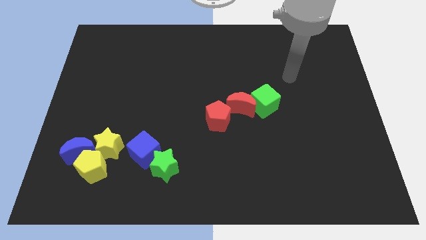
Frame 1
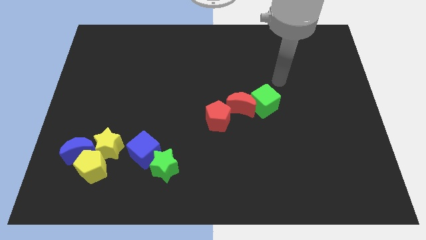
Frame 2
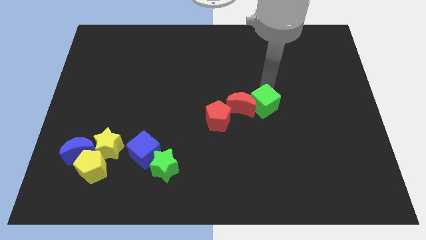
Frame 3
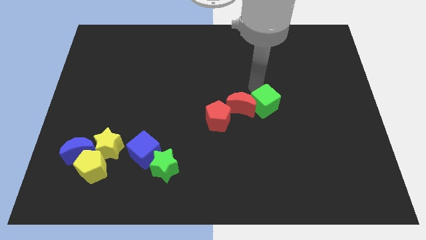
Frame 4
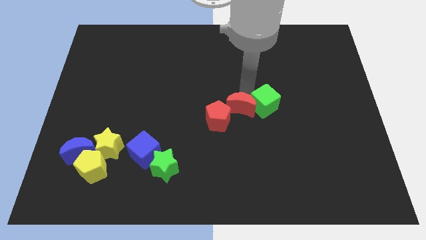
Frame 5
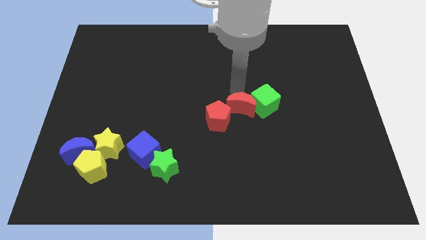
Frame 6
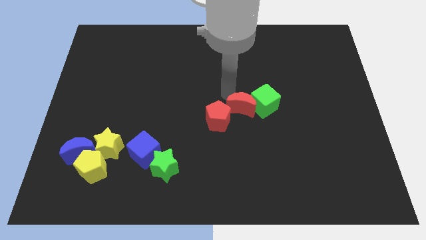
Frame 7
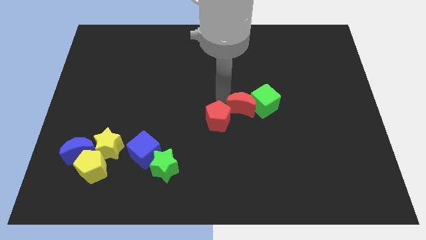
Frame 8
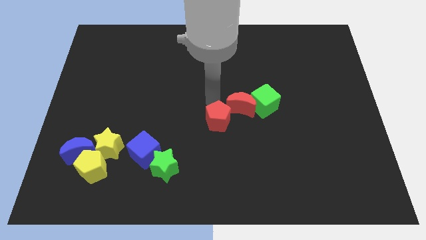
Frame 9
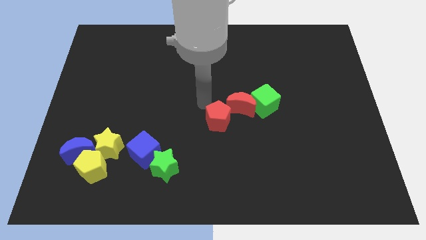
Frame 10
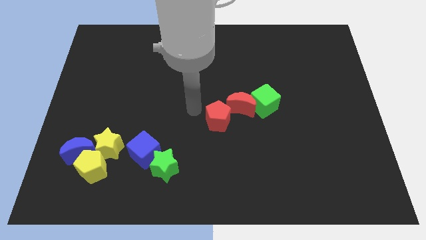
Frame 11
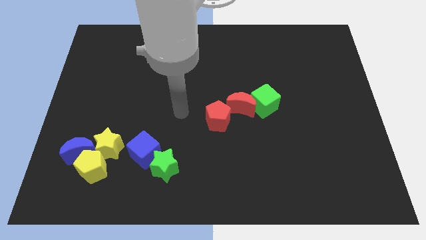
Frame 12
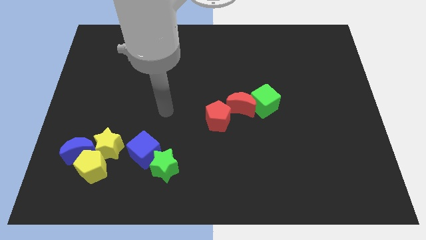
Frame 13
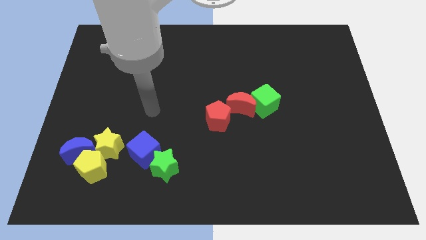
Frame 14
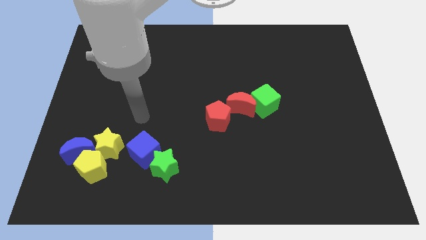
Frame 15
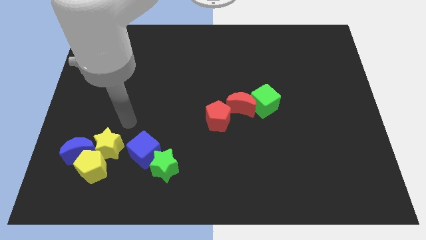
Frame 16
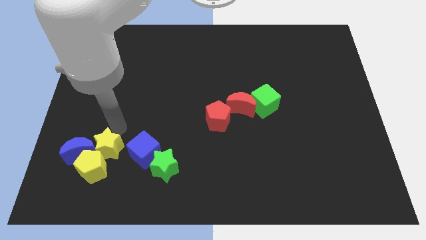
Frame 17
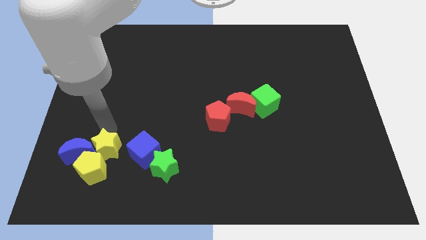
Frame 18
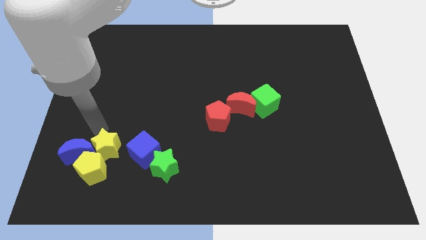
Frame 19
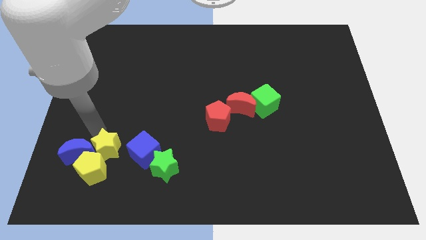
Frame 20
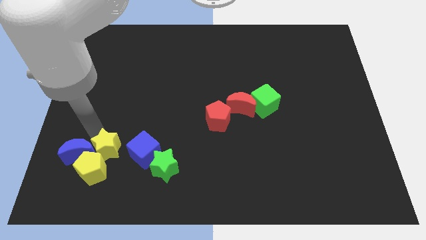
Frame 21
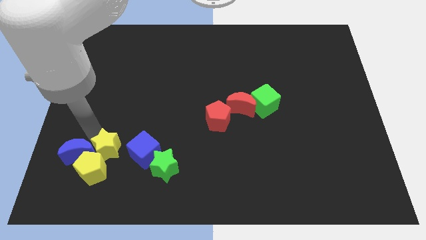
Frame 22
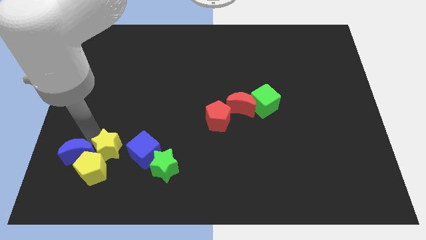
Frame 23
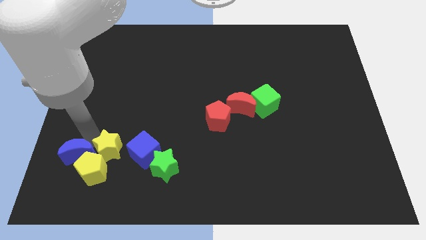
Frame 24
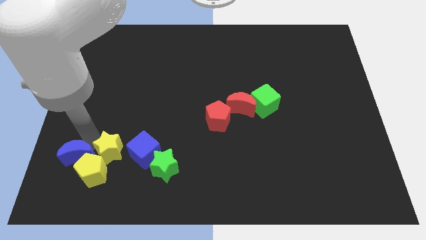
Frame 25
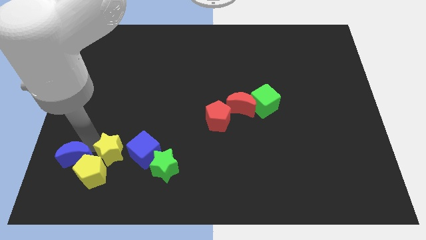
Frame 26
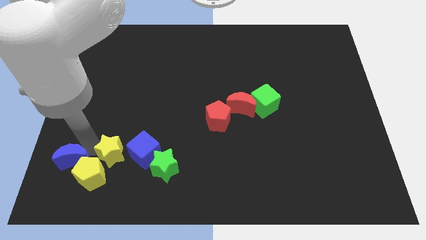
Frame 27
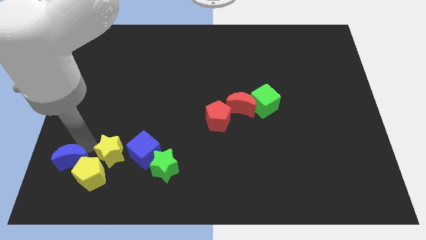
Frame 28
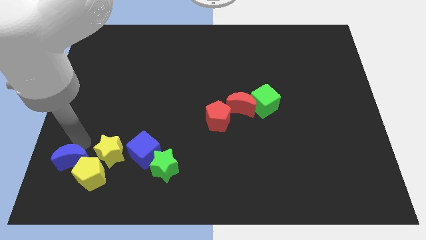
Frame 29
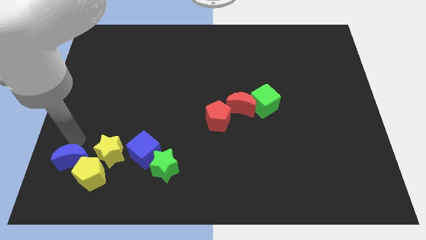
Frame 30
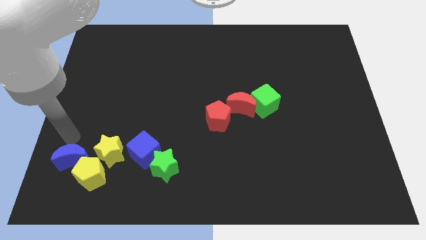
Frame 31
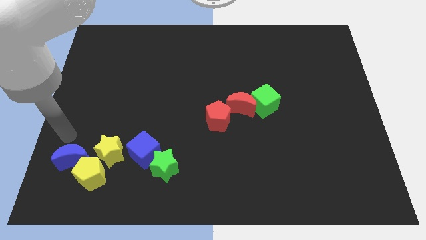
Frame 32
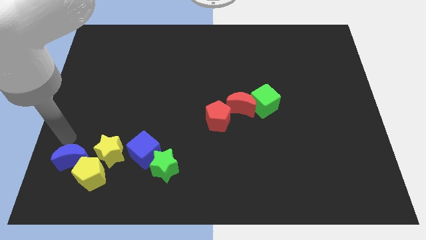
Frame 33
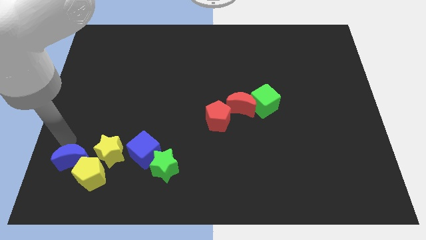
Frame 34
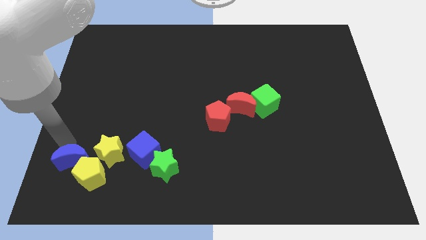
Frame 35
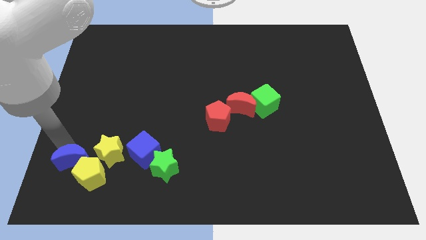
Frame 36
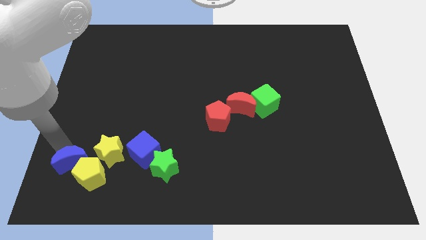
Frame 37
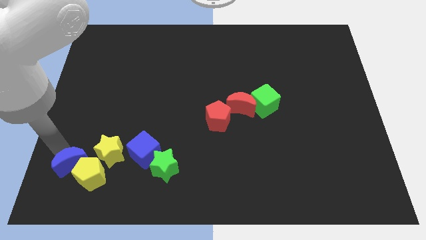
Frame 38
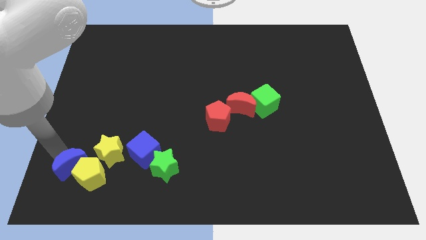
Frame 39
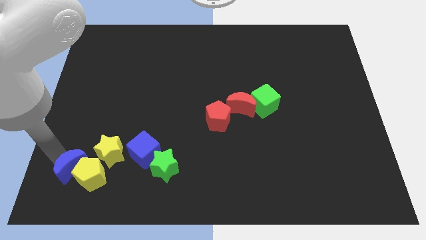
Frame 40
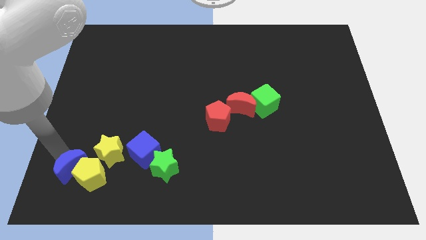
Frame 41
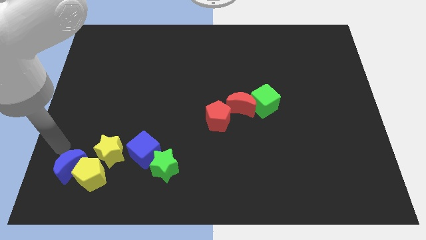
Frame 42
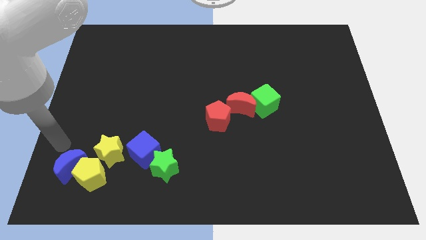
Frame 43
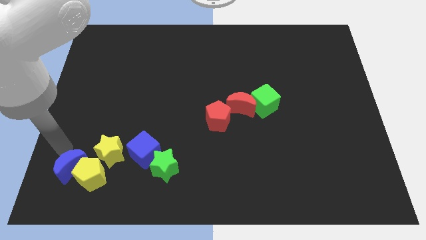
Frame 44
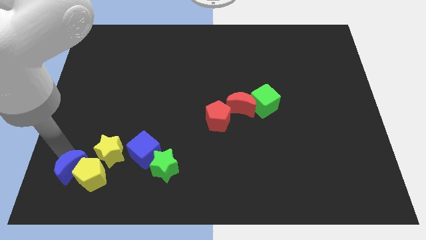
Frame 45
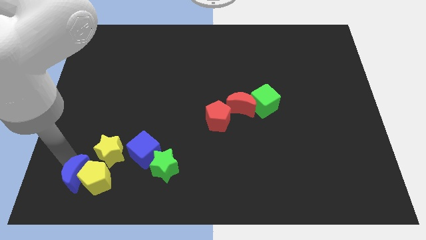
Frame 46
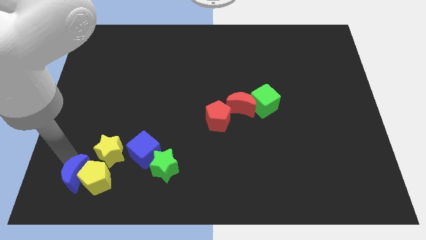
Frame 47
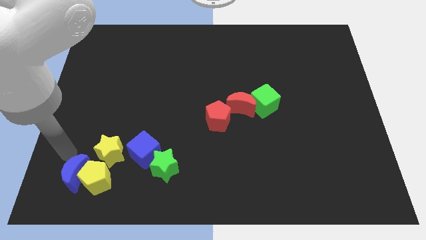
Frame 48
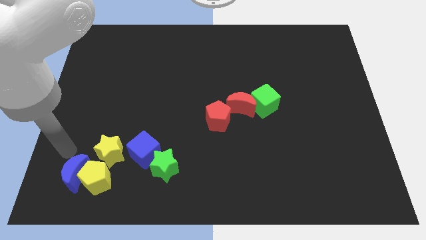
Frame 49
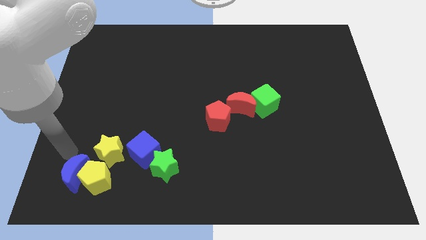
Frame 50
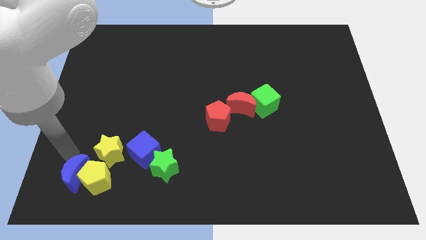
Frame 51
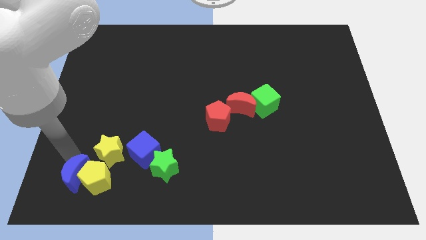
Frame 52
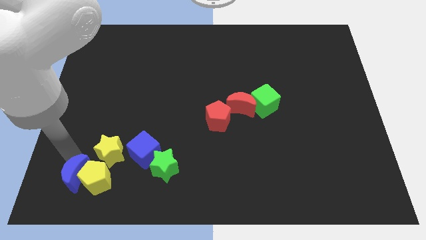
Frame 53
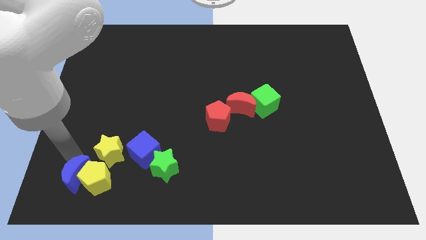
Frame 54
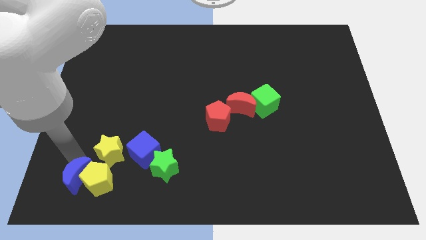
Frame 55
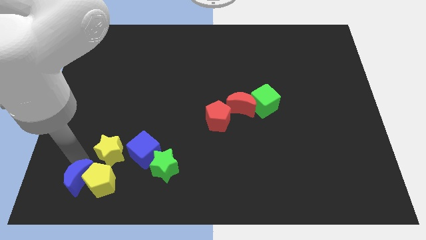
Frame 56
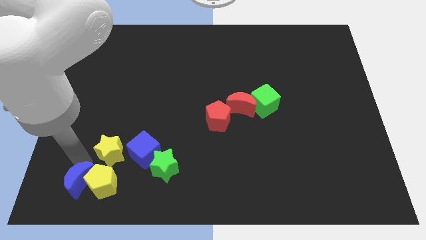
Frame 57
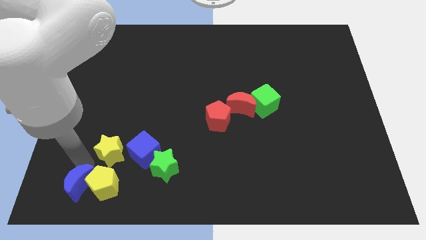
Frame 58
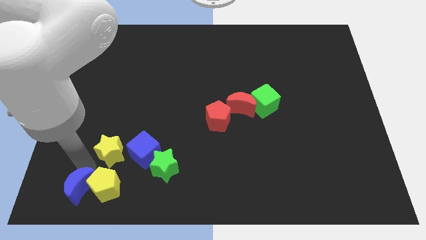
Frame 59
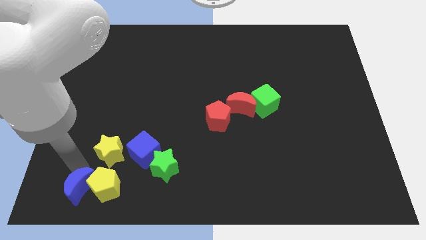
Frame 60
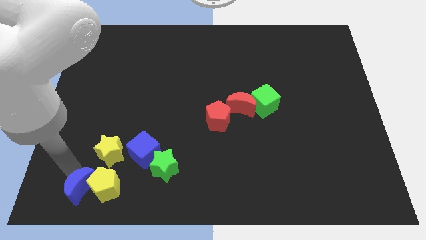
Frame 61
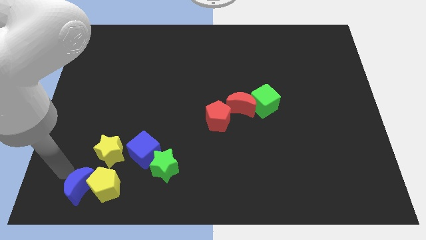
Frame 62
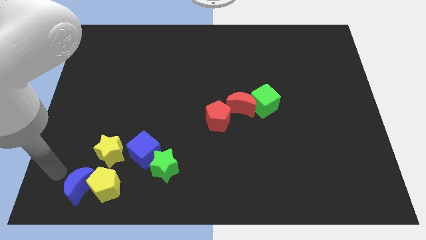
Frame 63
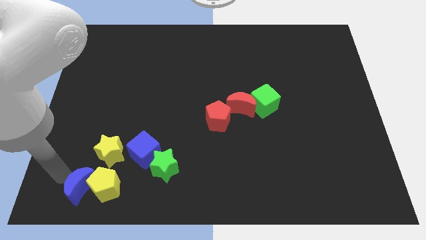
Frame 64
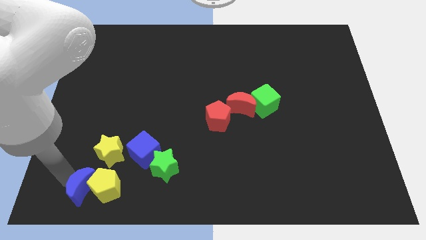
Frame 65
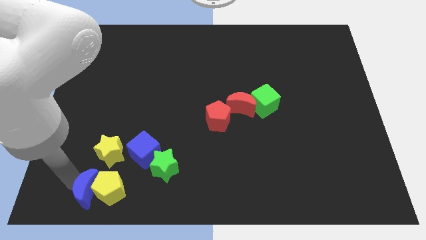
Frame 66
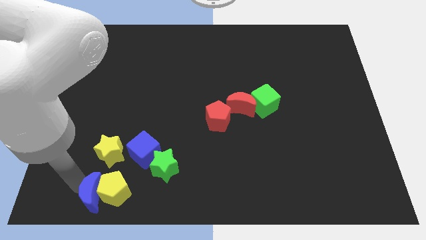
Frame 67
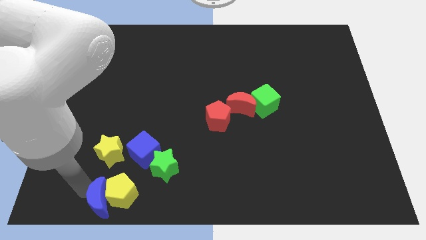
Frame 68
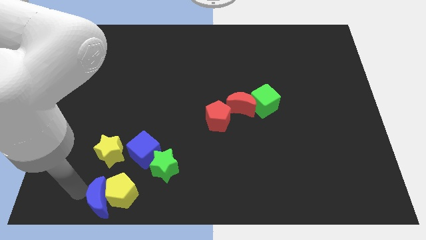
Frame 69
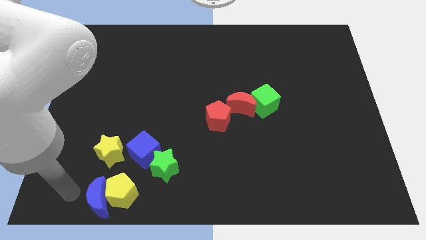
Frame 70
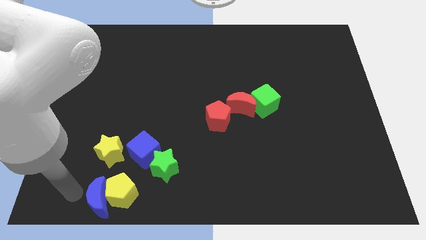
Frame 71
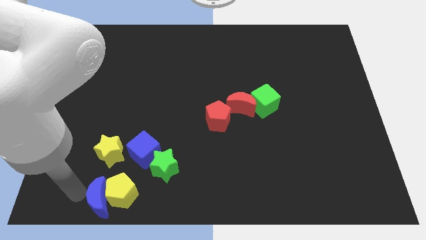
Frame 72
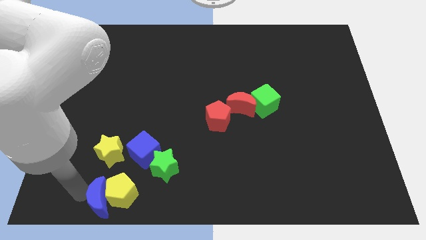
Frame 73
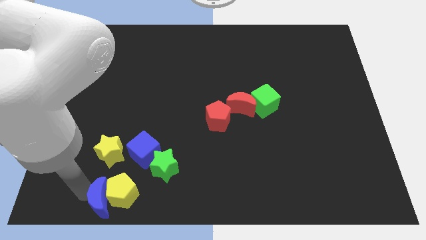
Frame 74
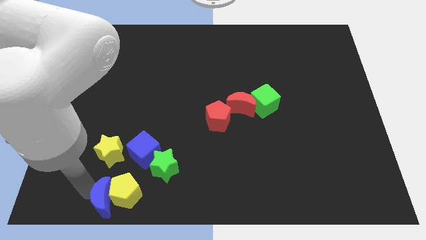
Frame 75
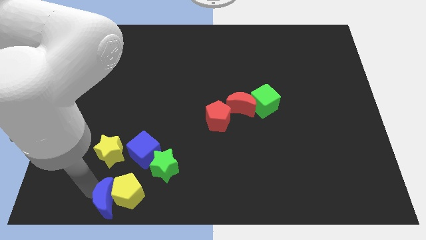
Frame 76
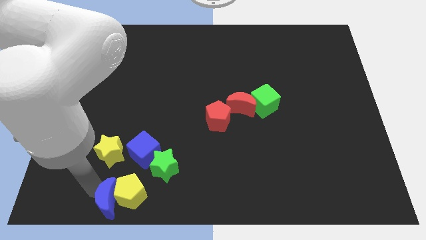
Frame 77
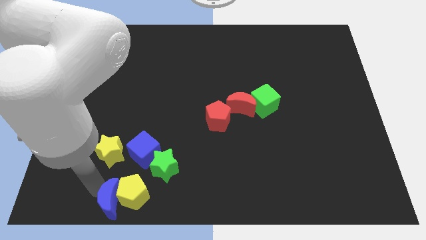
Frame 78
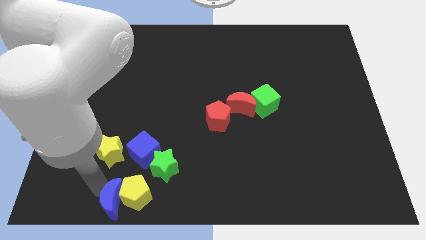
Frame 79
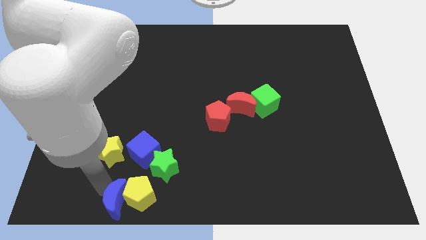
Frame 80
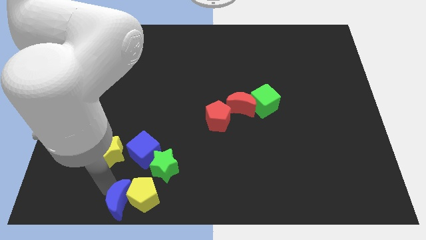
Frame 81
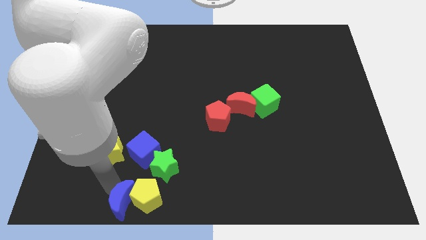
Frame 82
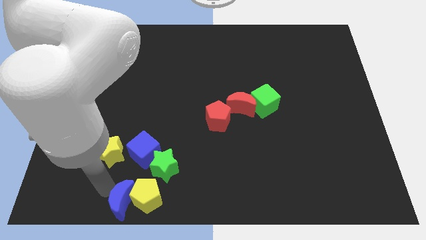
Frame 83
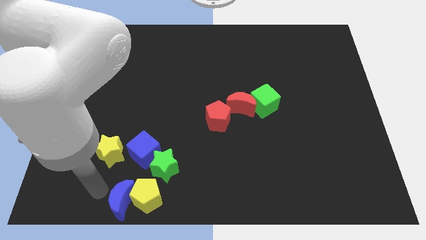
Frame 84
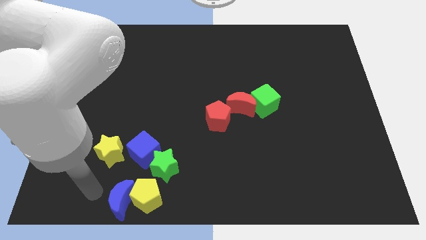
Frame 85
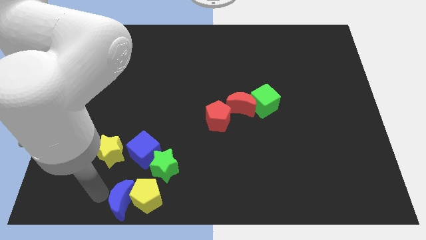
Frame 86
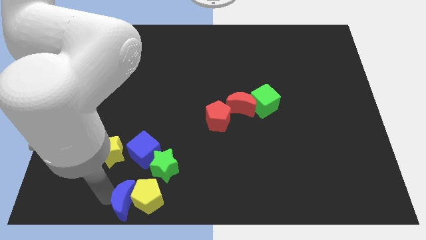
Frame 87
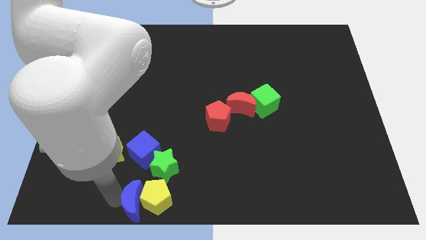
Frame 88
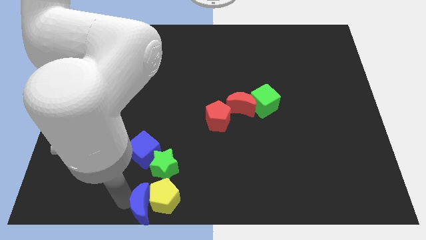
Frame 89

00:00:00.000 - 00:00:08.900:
move the blue moon to the bottom side
